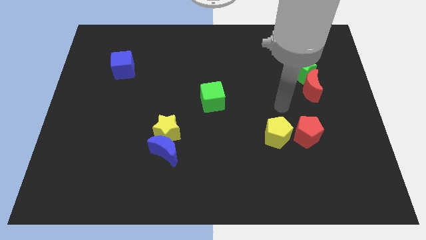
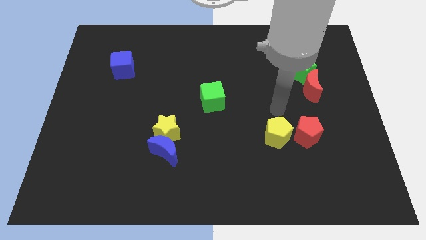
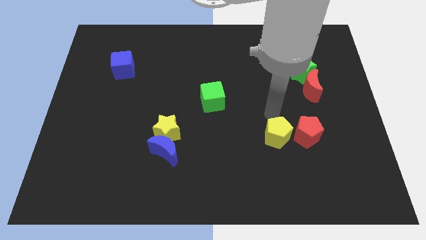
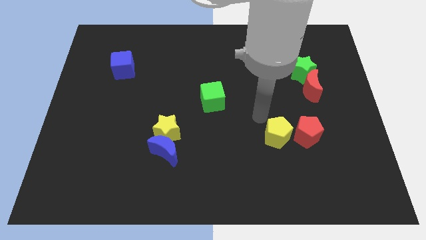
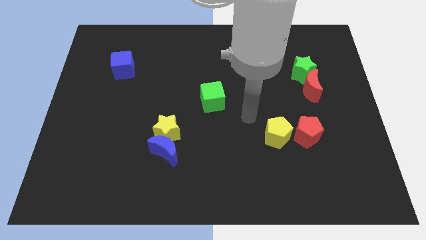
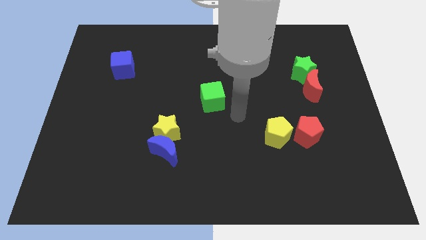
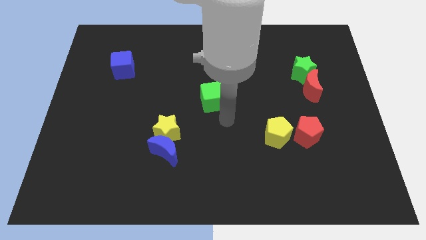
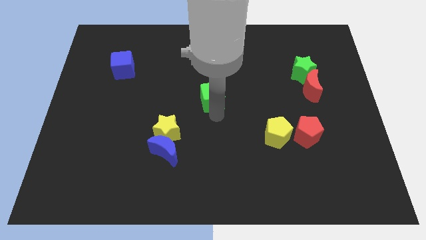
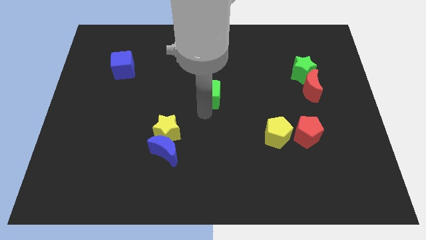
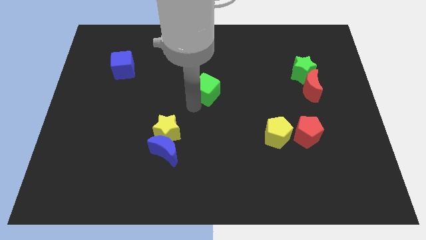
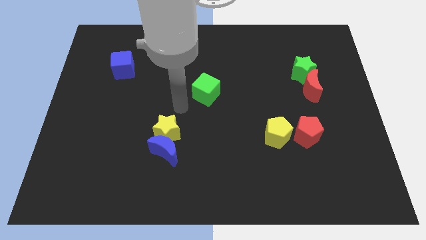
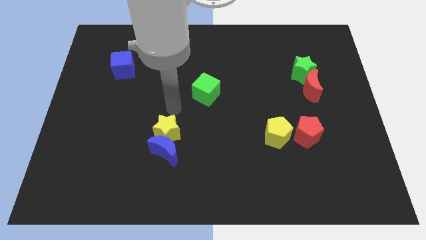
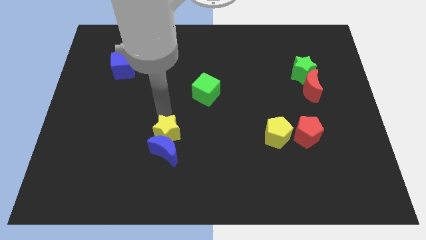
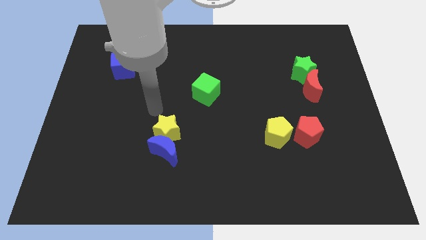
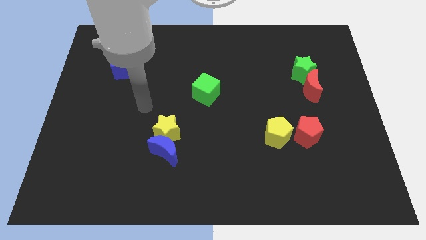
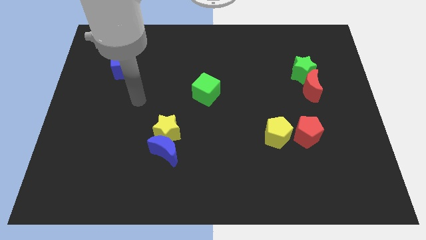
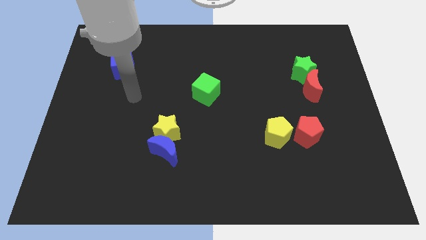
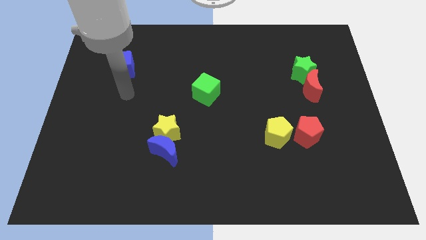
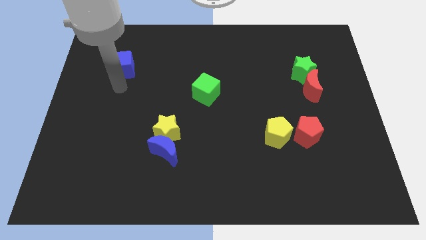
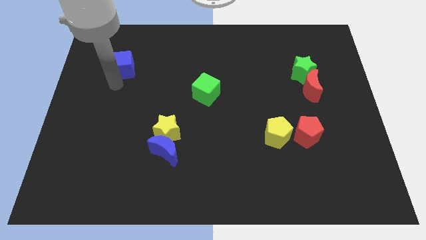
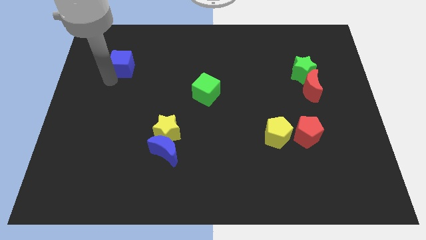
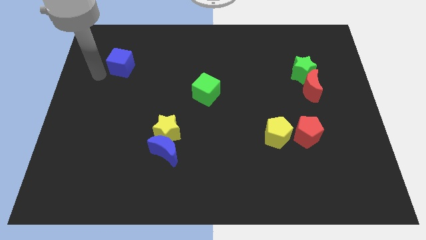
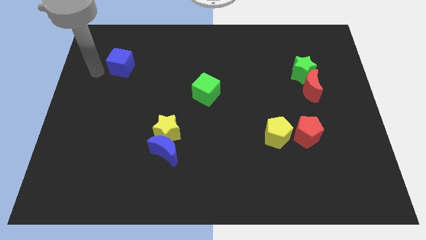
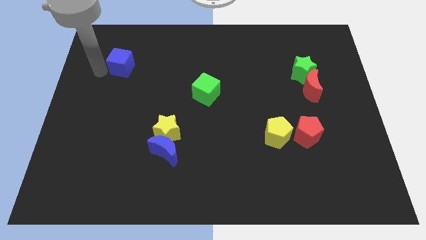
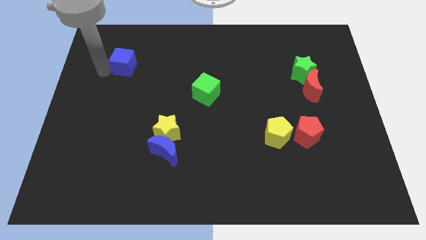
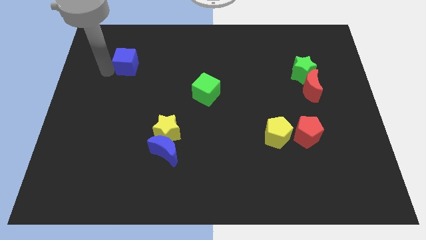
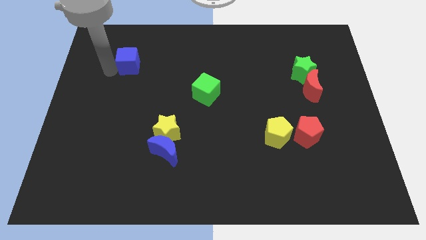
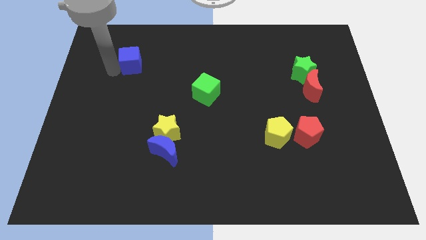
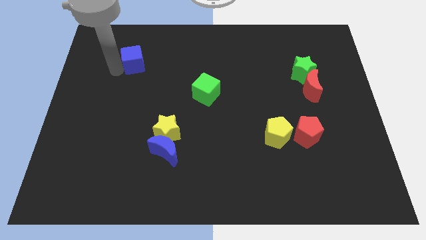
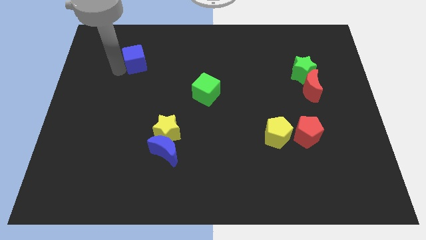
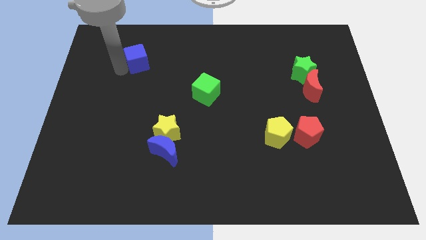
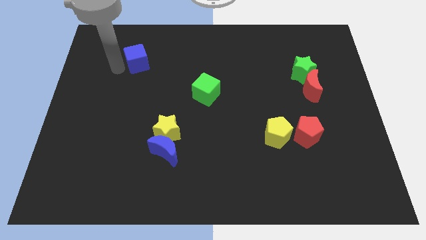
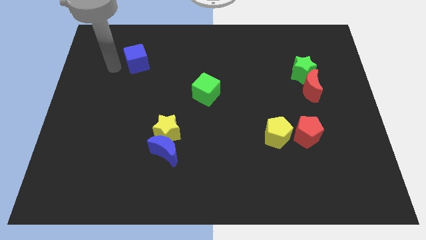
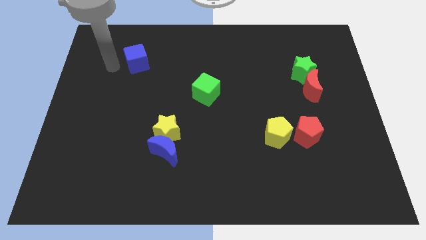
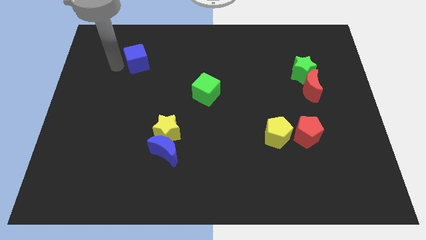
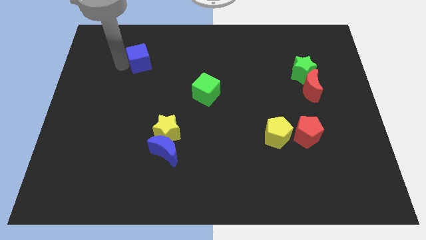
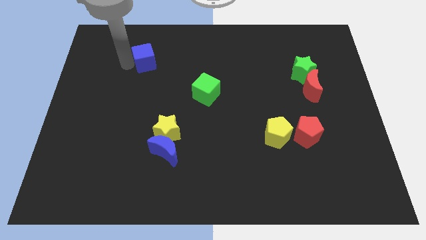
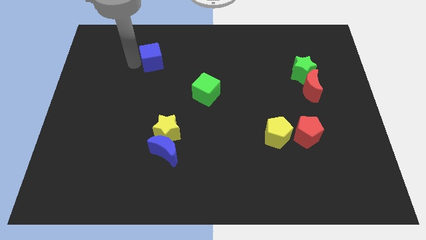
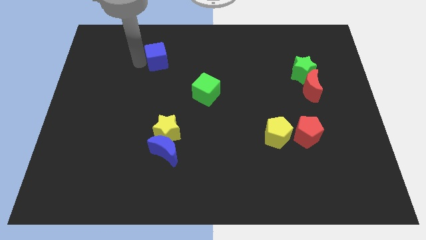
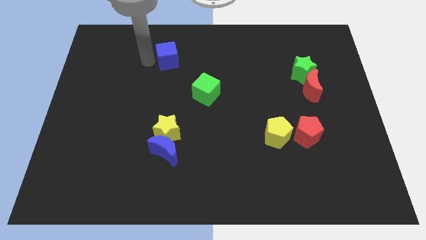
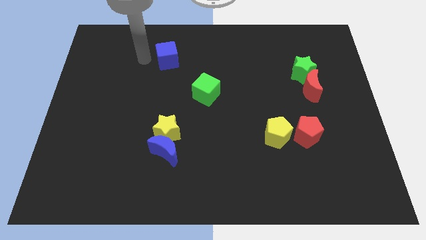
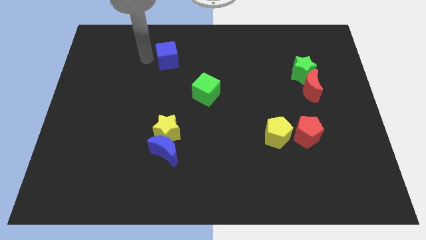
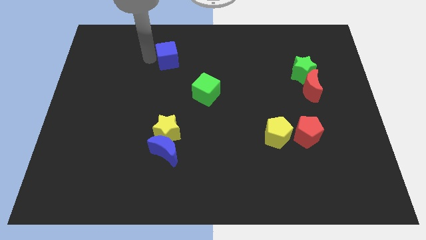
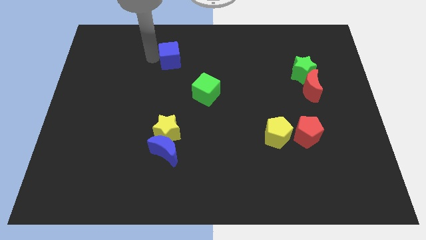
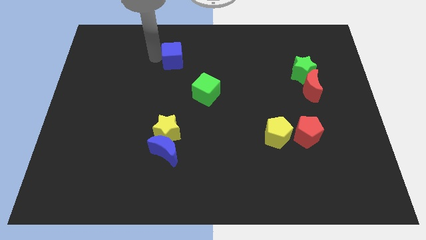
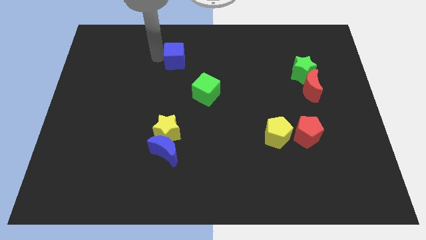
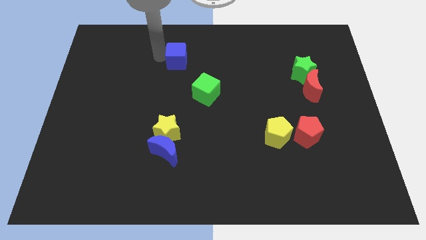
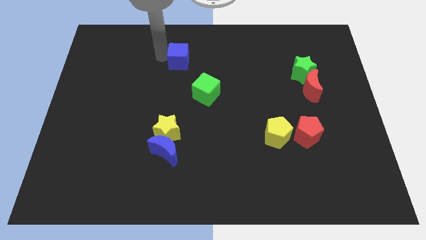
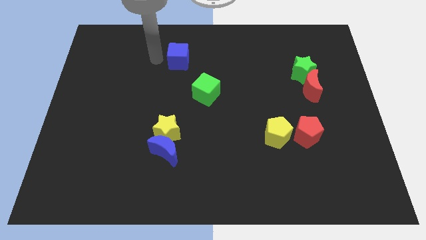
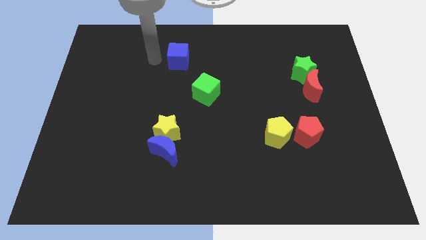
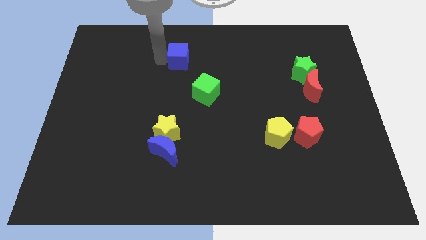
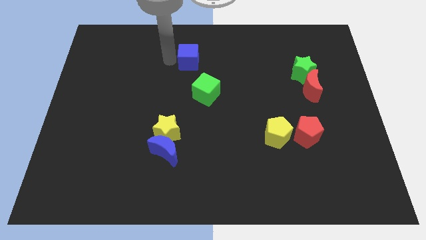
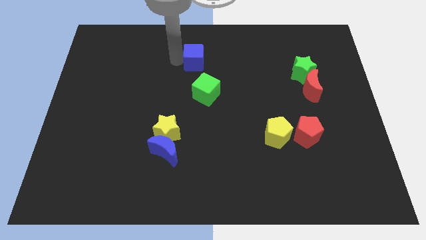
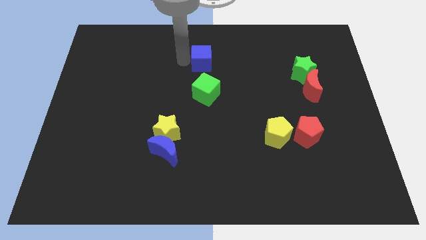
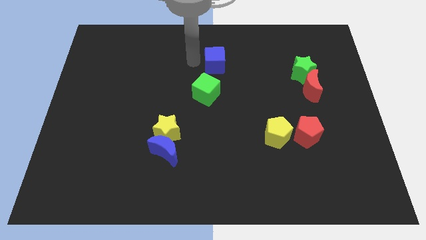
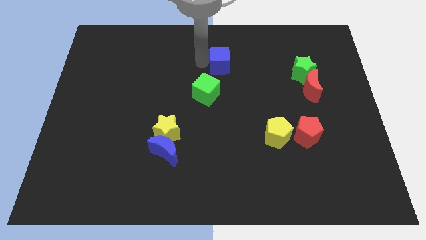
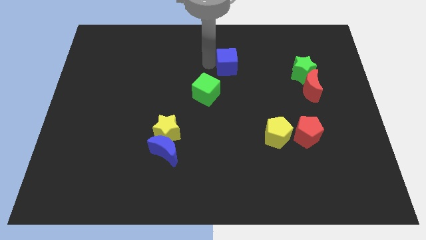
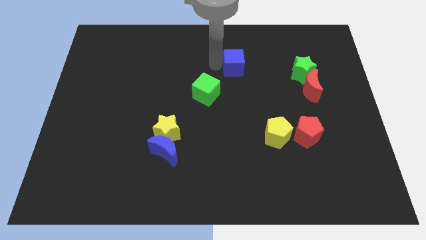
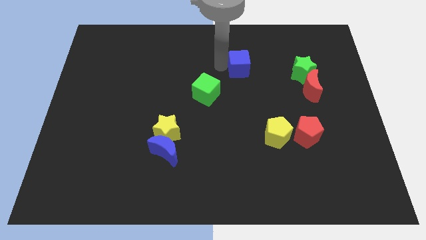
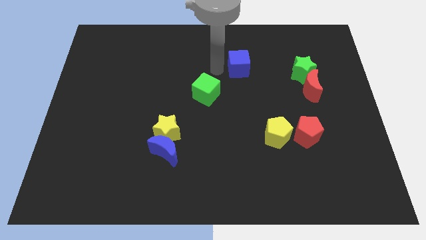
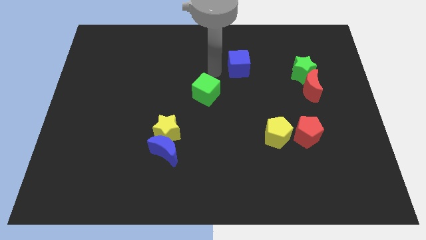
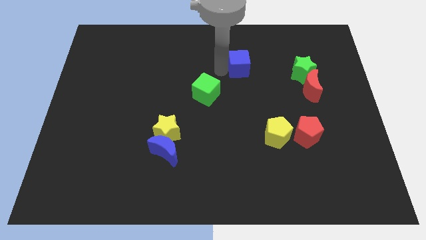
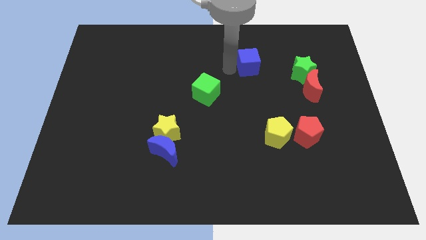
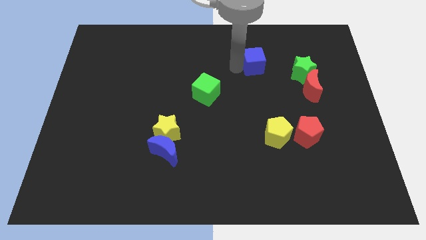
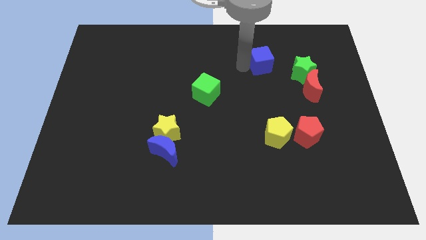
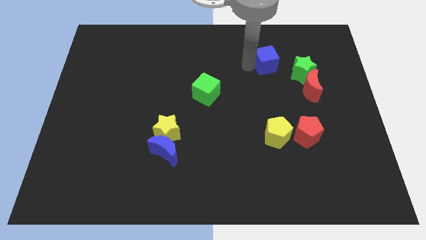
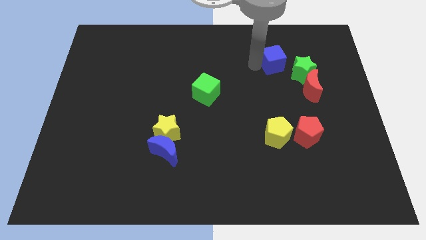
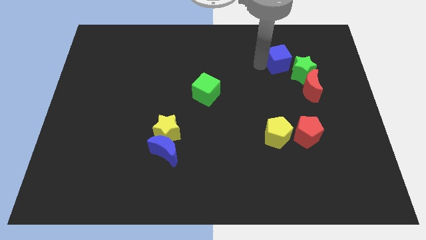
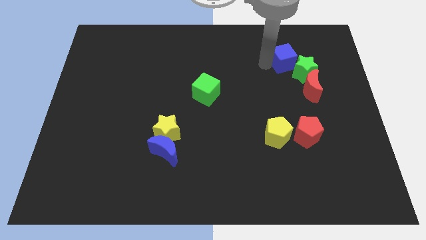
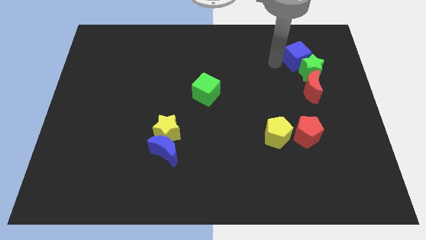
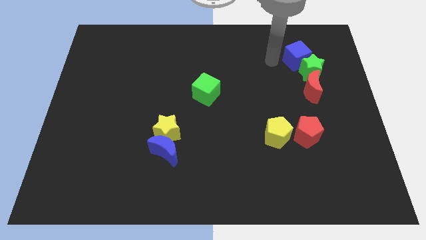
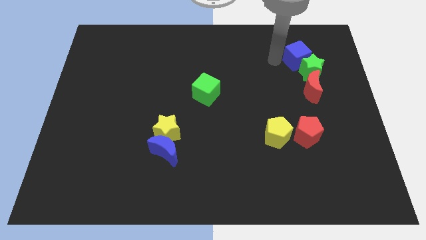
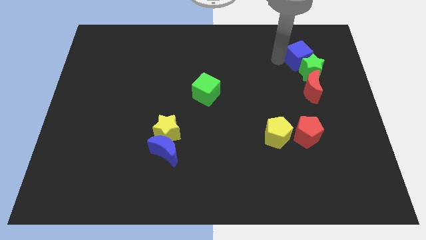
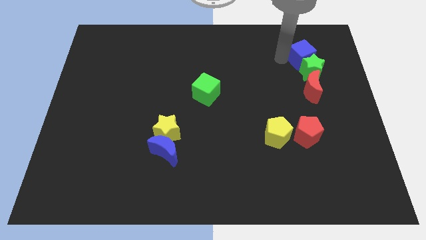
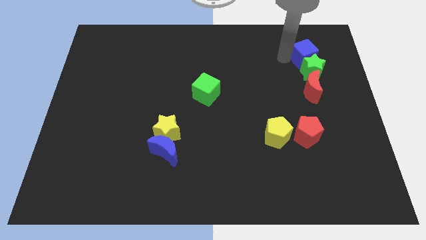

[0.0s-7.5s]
put the blue cube diagonally up and to the right of the green star
